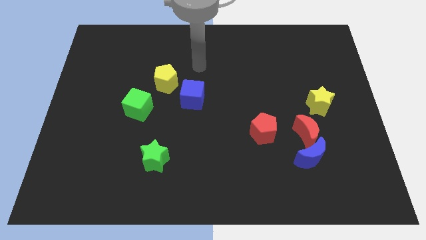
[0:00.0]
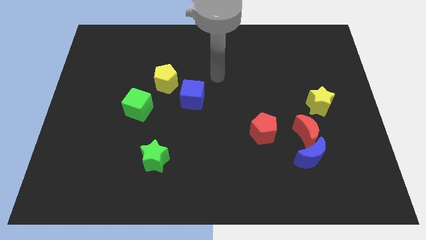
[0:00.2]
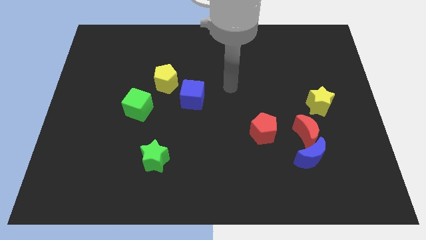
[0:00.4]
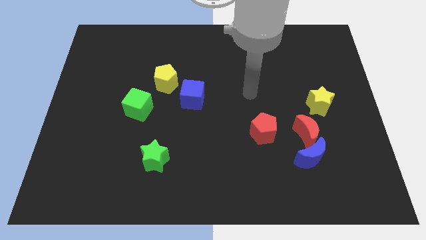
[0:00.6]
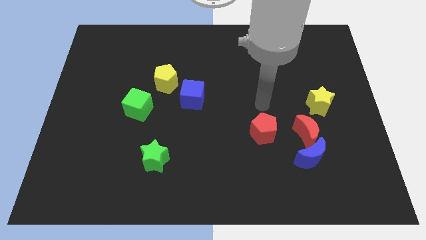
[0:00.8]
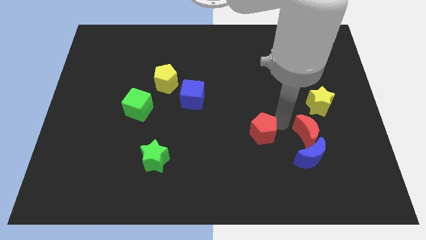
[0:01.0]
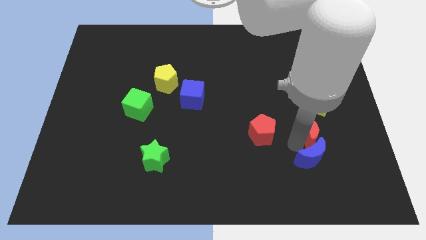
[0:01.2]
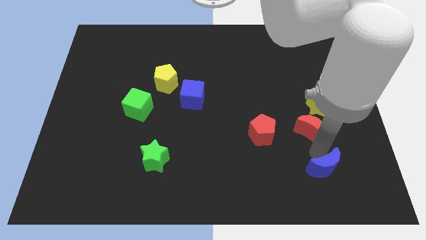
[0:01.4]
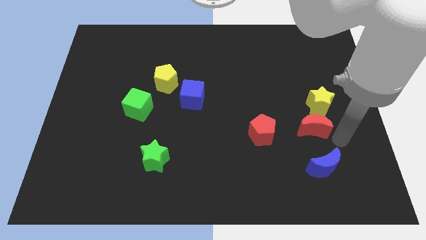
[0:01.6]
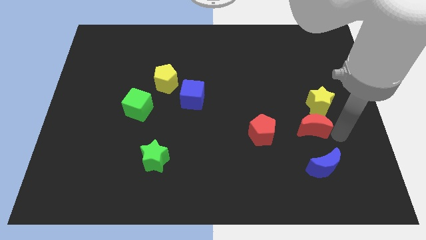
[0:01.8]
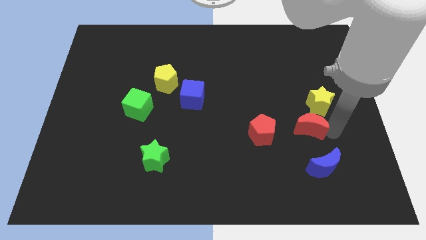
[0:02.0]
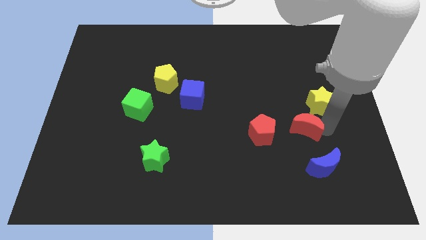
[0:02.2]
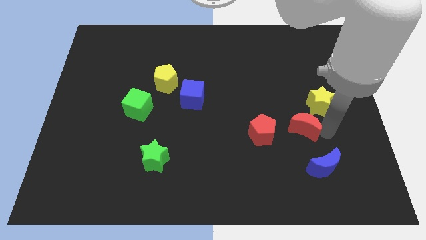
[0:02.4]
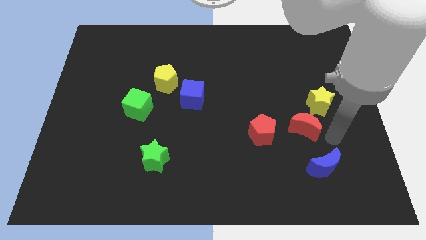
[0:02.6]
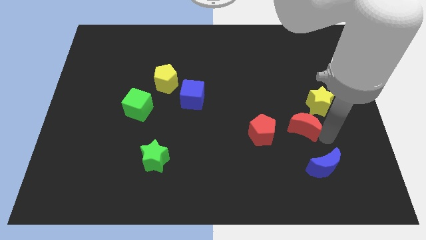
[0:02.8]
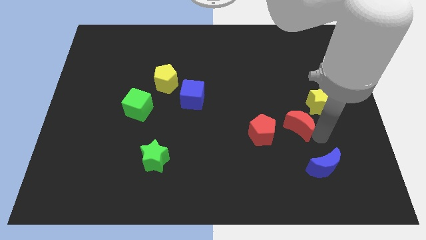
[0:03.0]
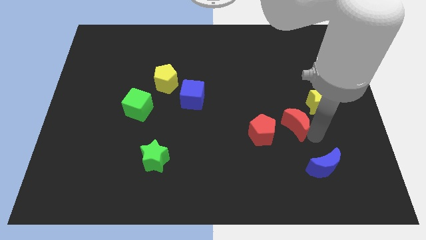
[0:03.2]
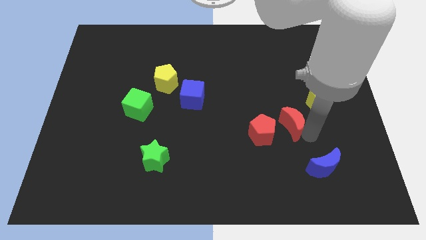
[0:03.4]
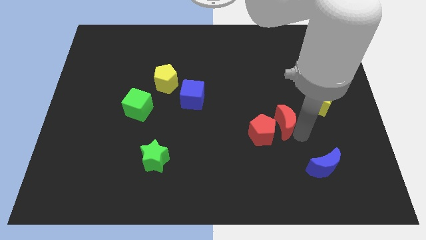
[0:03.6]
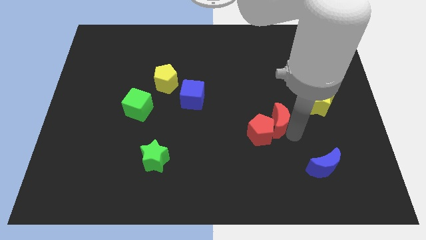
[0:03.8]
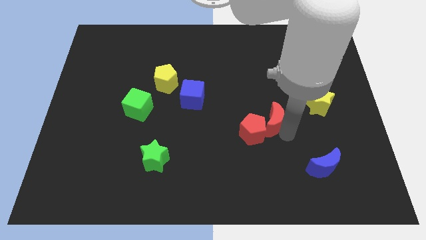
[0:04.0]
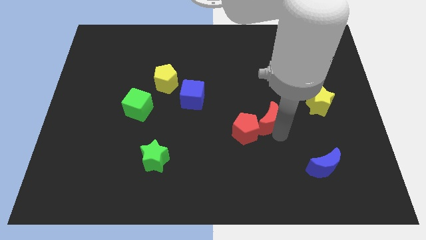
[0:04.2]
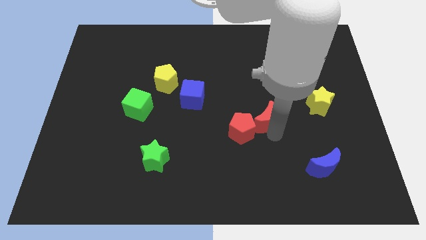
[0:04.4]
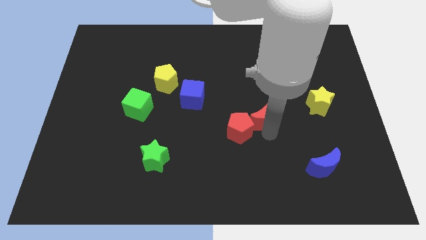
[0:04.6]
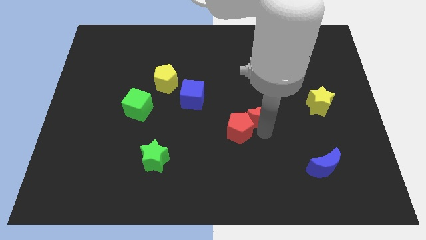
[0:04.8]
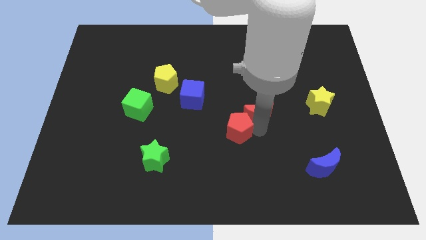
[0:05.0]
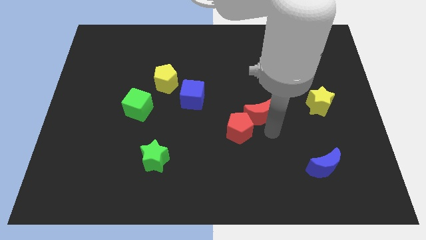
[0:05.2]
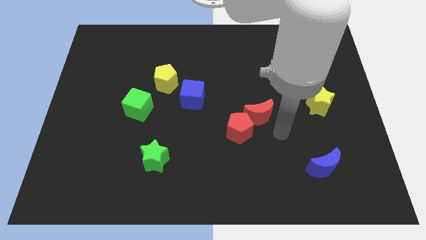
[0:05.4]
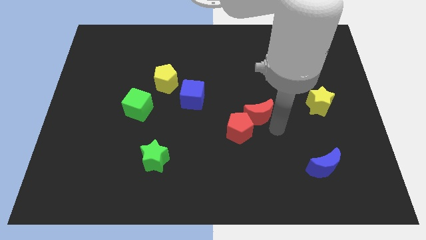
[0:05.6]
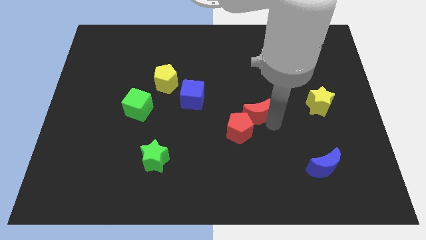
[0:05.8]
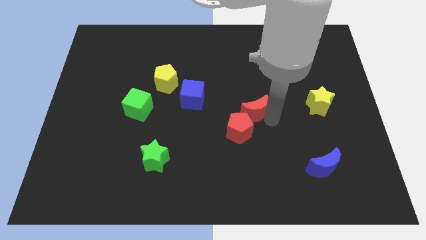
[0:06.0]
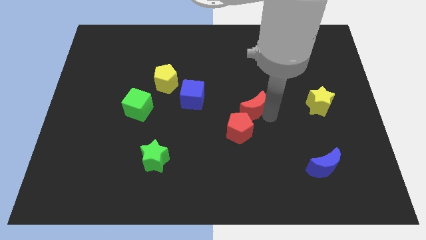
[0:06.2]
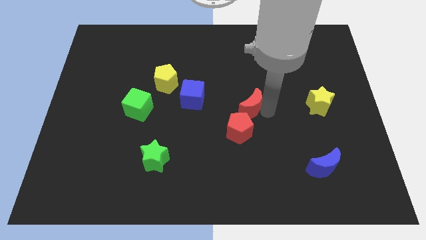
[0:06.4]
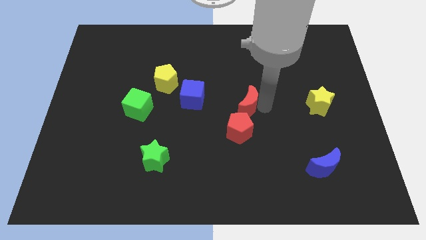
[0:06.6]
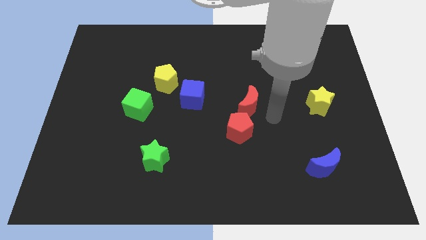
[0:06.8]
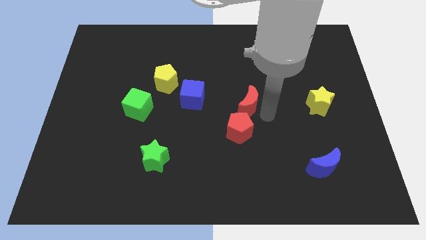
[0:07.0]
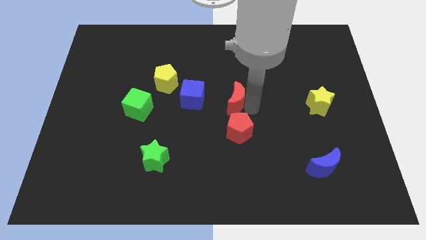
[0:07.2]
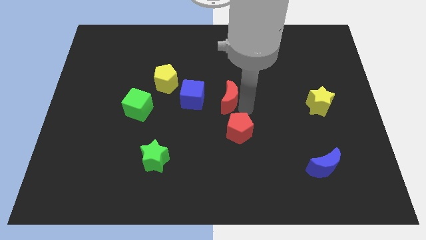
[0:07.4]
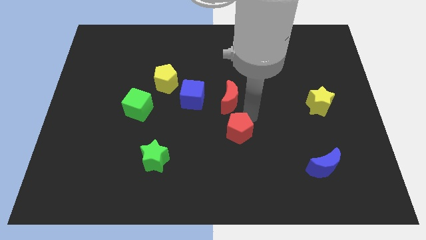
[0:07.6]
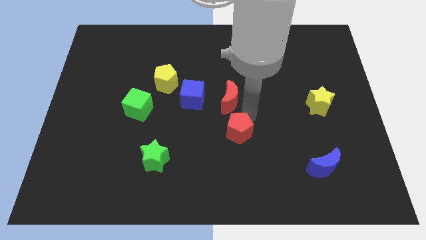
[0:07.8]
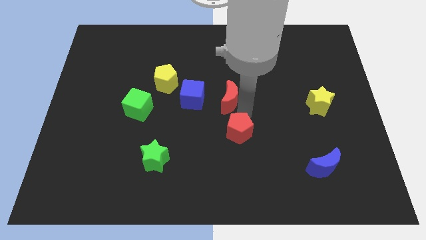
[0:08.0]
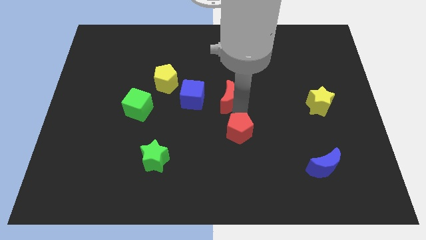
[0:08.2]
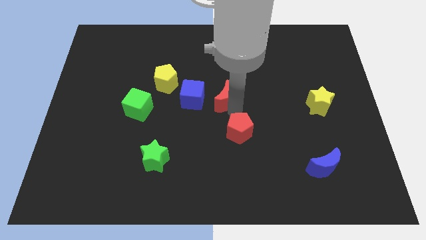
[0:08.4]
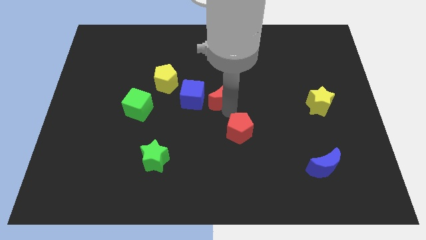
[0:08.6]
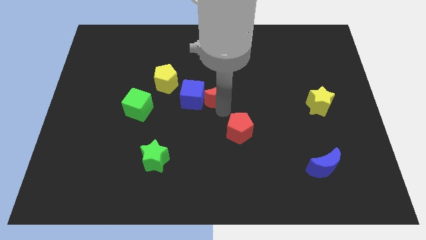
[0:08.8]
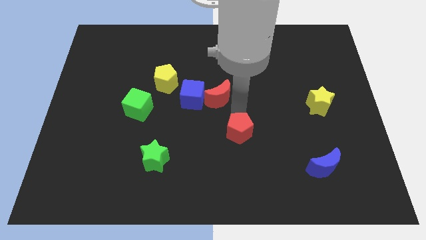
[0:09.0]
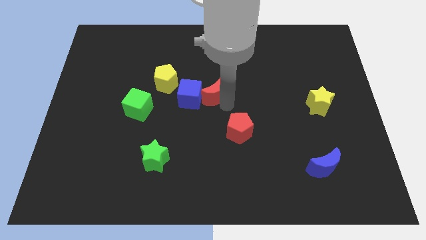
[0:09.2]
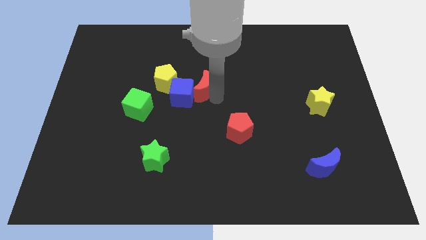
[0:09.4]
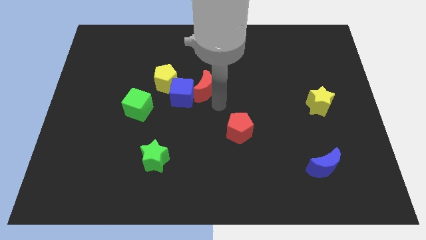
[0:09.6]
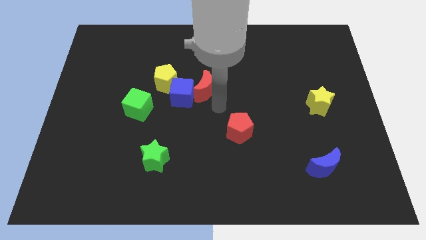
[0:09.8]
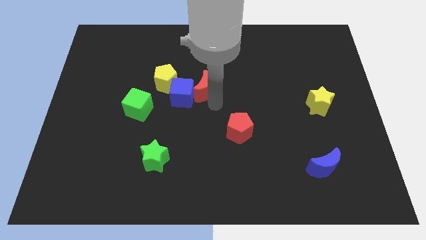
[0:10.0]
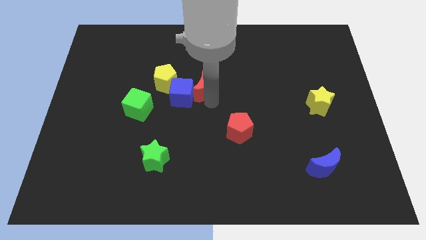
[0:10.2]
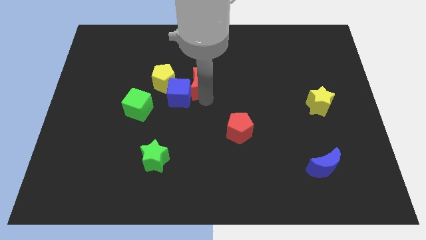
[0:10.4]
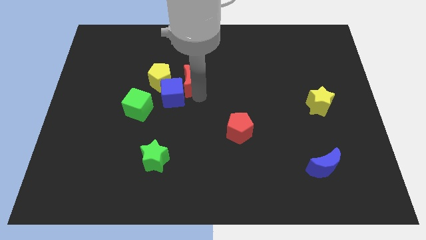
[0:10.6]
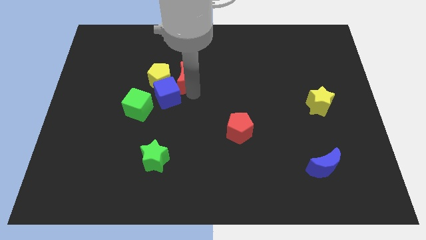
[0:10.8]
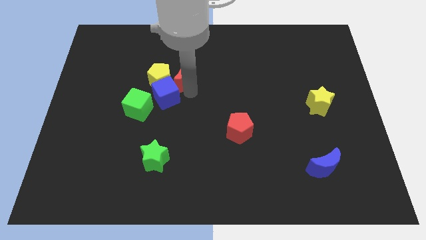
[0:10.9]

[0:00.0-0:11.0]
move the red moon to the yellow pentagon

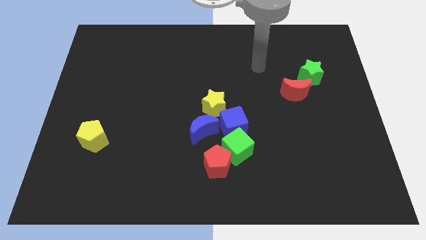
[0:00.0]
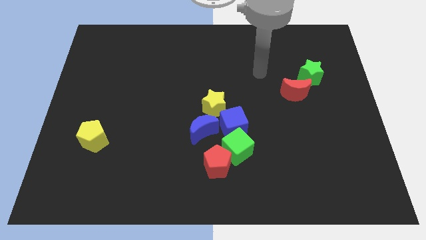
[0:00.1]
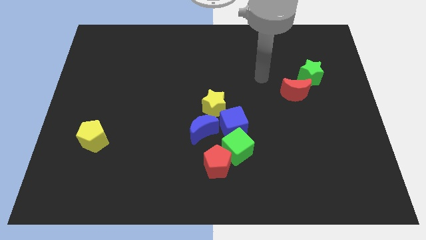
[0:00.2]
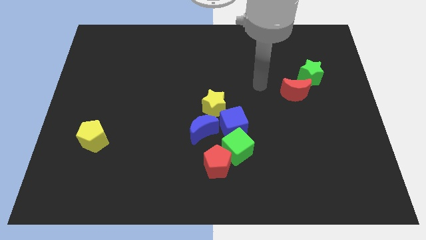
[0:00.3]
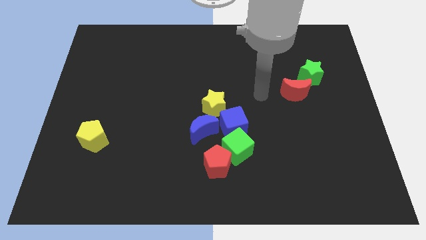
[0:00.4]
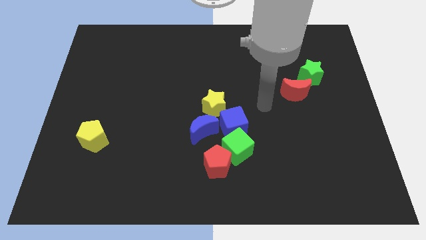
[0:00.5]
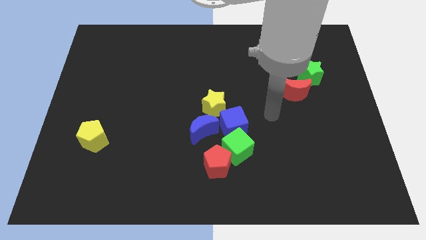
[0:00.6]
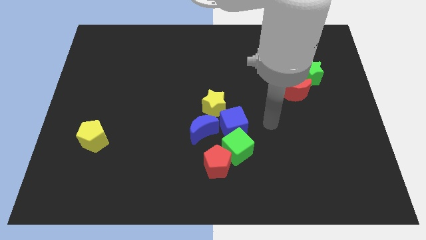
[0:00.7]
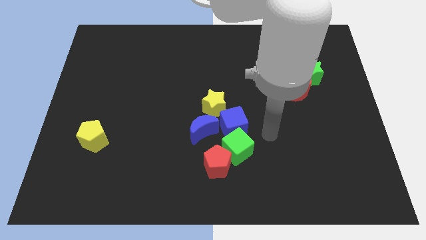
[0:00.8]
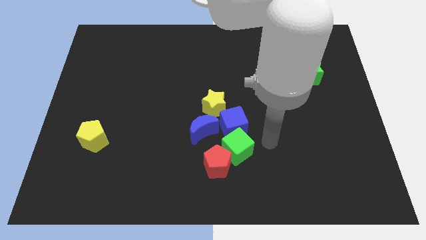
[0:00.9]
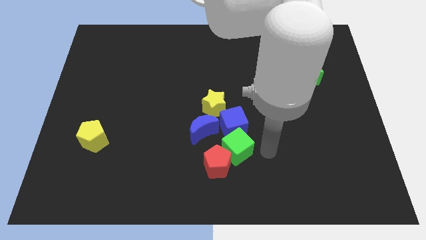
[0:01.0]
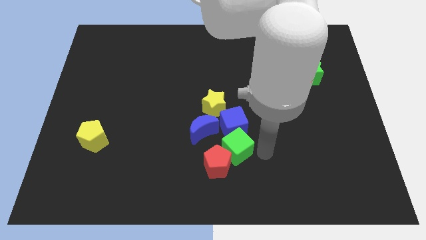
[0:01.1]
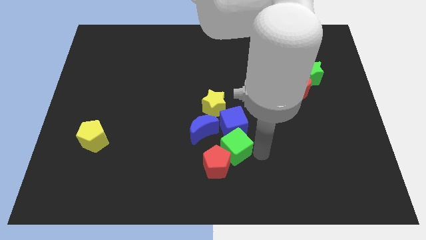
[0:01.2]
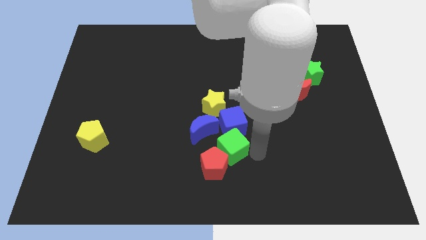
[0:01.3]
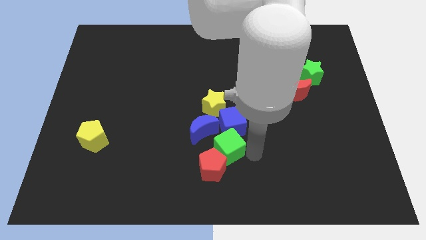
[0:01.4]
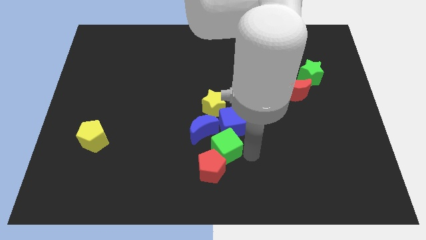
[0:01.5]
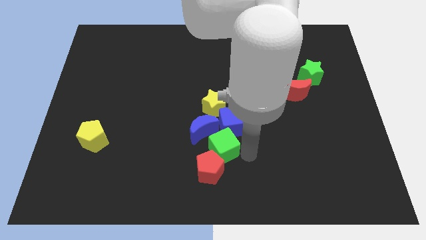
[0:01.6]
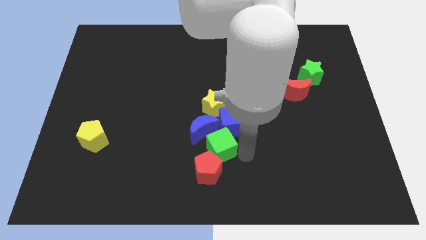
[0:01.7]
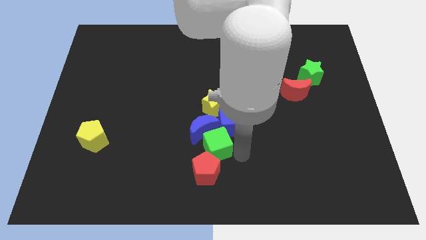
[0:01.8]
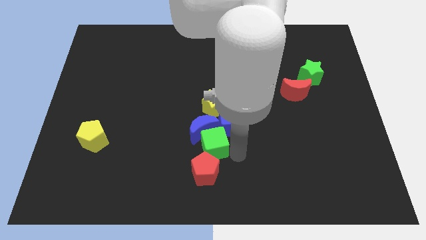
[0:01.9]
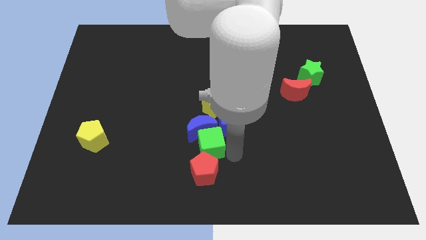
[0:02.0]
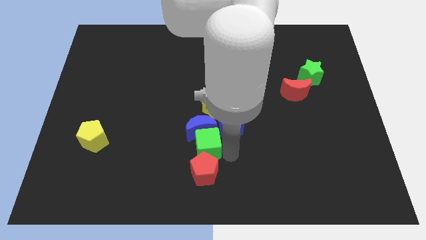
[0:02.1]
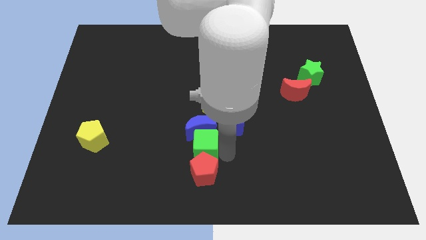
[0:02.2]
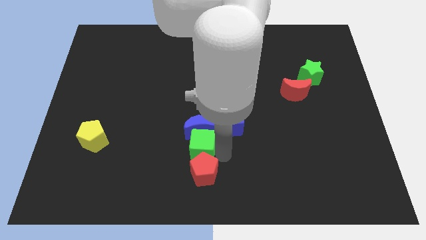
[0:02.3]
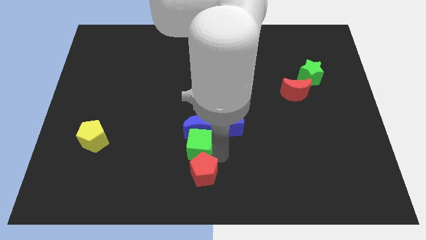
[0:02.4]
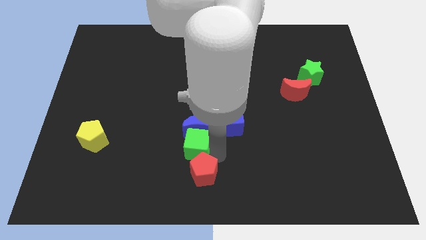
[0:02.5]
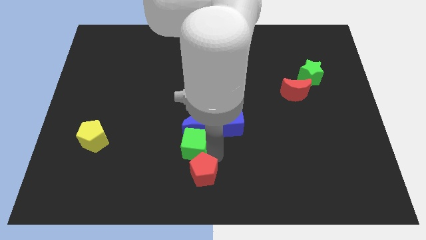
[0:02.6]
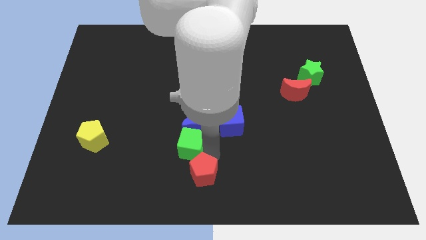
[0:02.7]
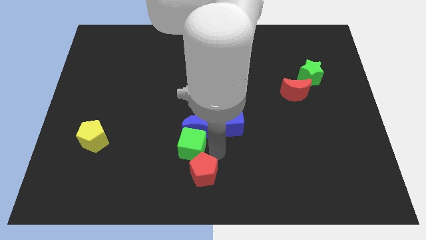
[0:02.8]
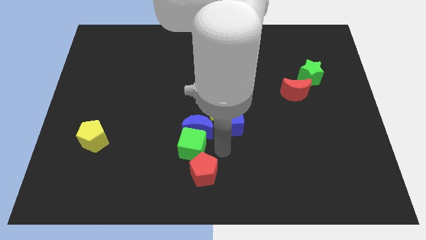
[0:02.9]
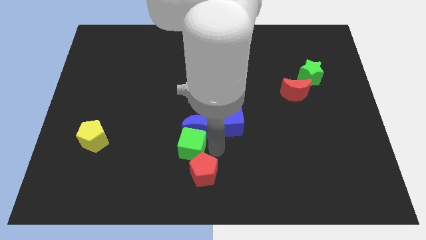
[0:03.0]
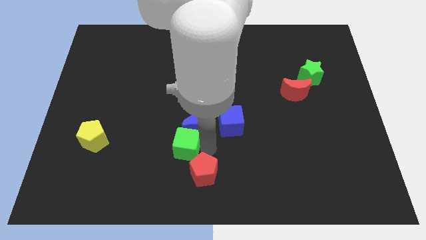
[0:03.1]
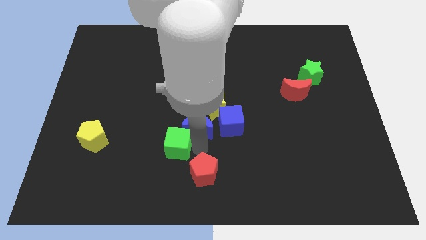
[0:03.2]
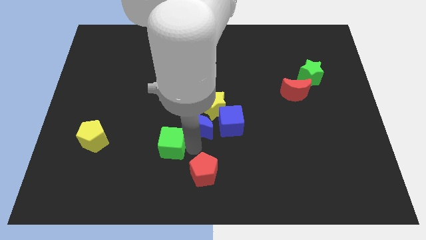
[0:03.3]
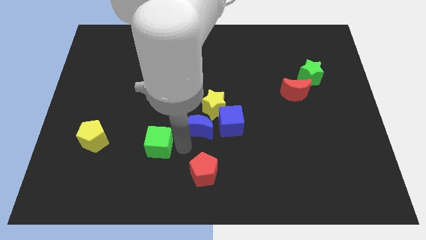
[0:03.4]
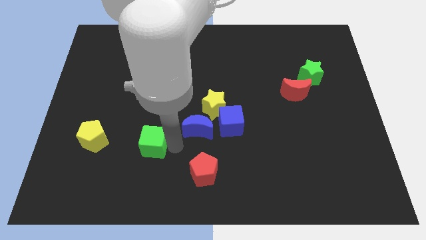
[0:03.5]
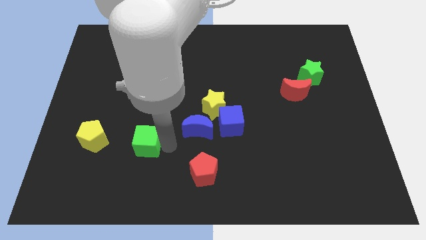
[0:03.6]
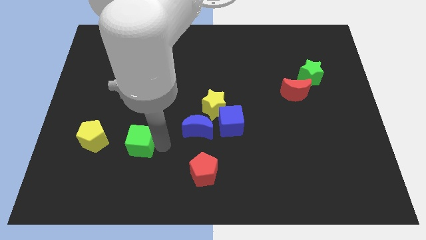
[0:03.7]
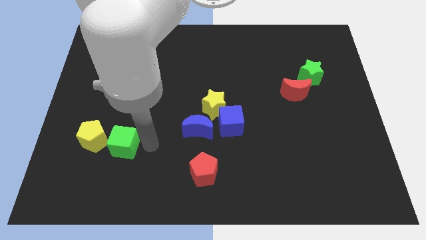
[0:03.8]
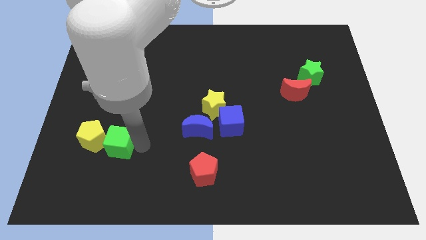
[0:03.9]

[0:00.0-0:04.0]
push the green cube close to the yellow pentagon
